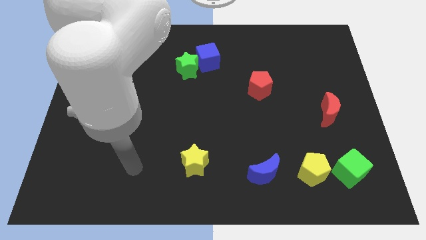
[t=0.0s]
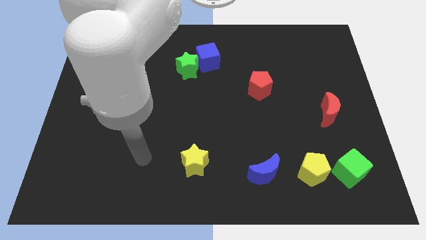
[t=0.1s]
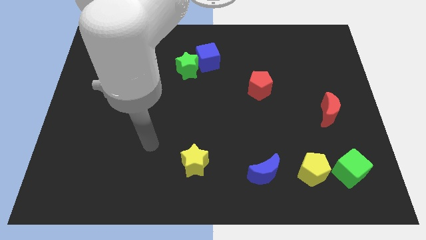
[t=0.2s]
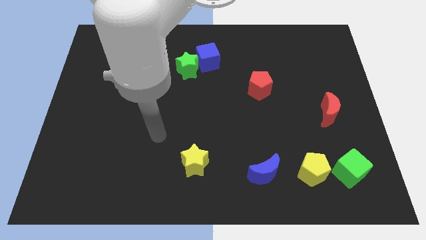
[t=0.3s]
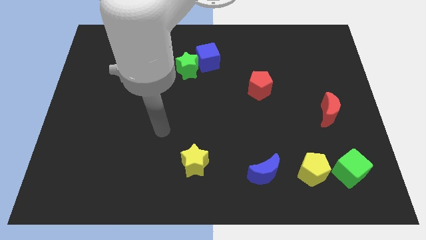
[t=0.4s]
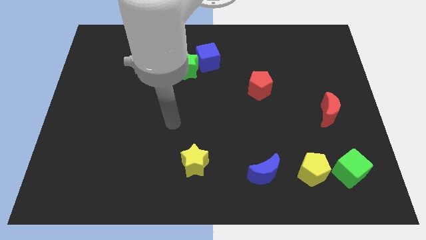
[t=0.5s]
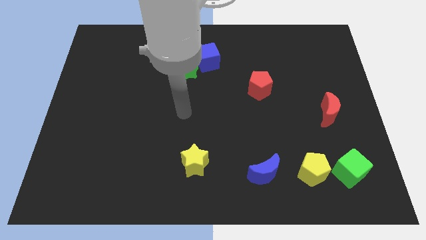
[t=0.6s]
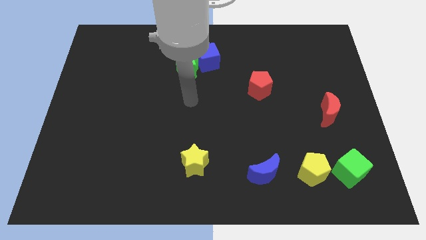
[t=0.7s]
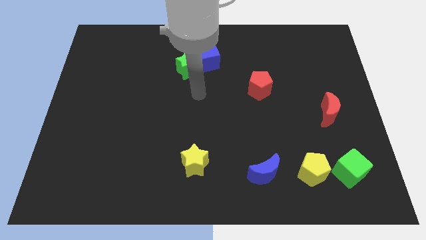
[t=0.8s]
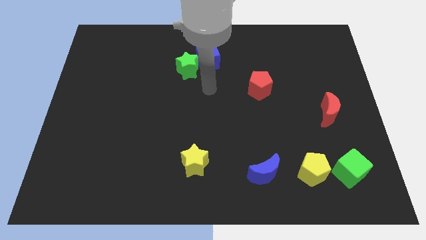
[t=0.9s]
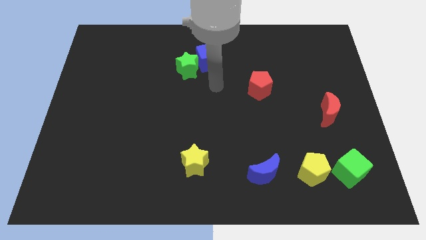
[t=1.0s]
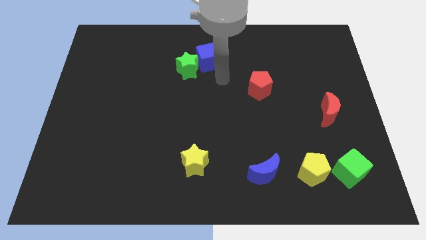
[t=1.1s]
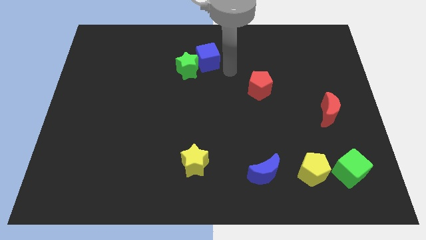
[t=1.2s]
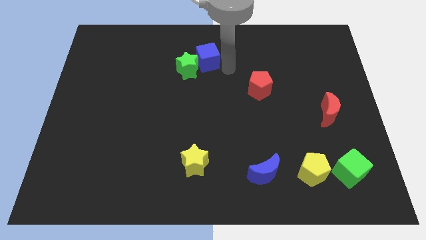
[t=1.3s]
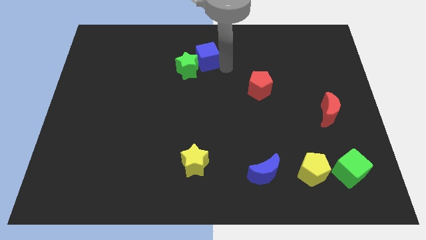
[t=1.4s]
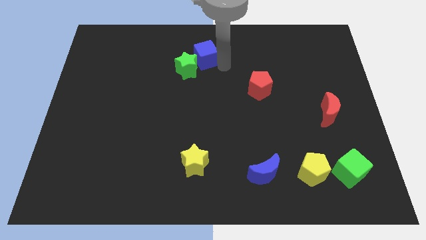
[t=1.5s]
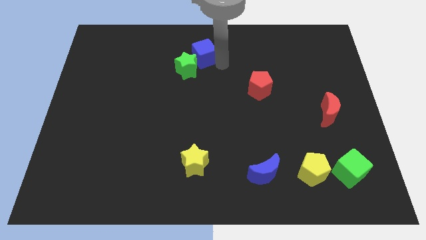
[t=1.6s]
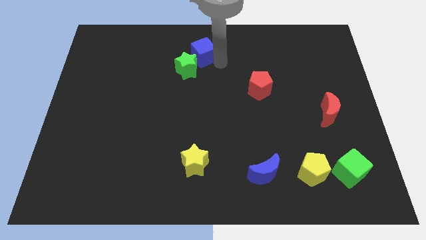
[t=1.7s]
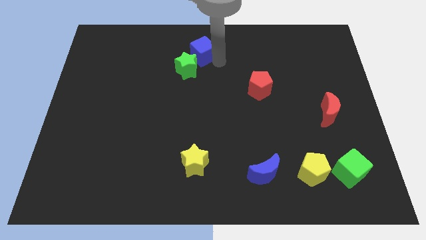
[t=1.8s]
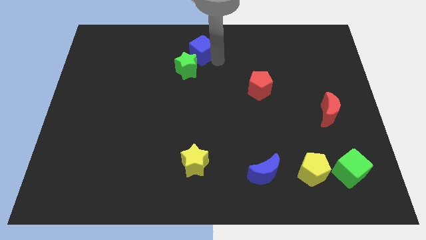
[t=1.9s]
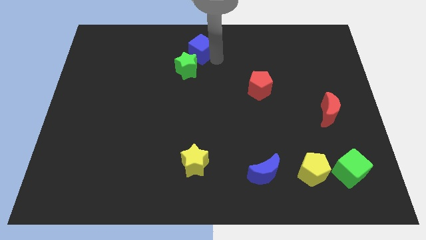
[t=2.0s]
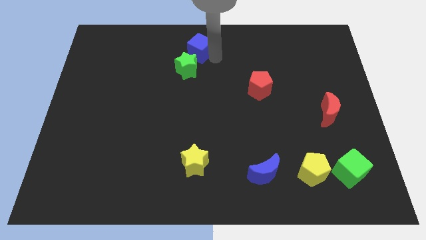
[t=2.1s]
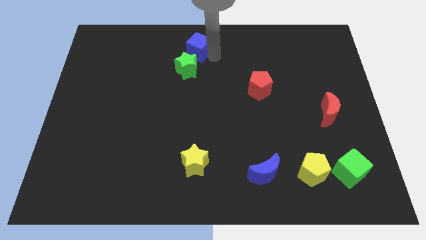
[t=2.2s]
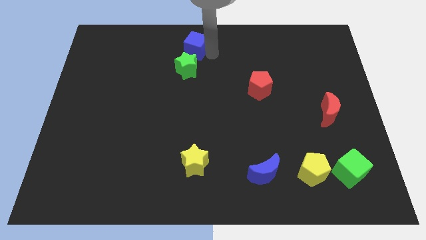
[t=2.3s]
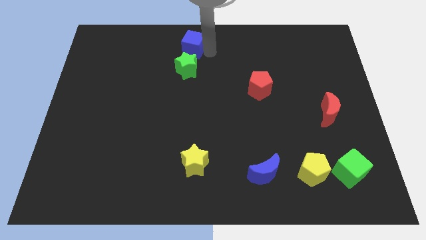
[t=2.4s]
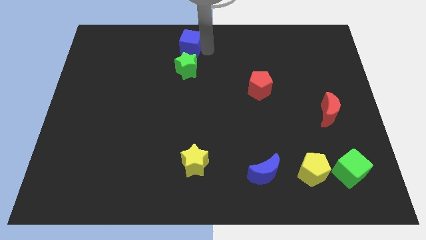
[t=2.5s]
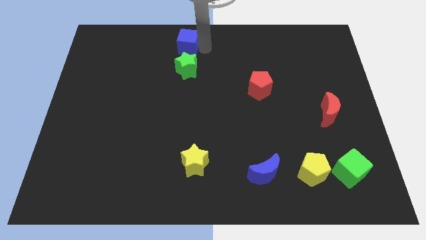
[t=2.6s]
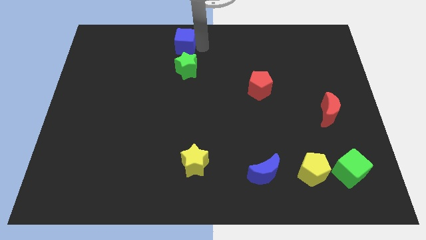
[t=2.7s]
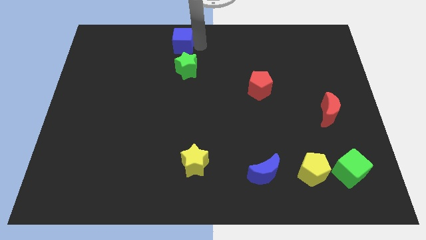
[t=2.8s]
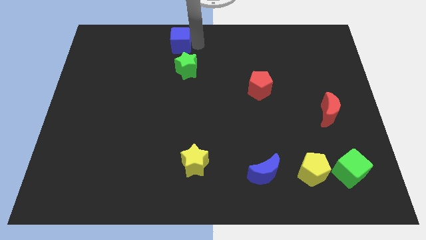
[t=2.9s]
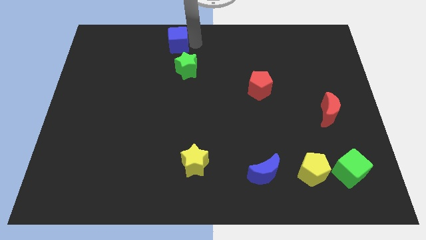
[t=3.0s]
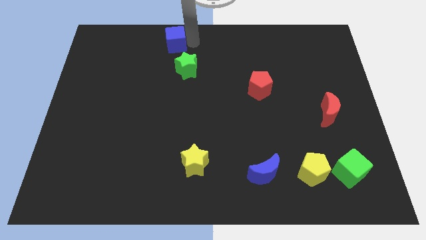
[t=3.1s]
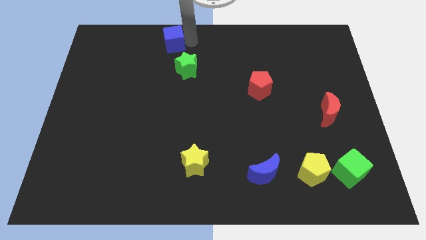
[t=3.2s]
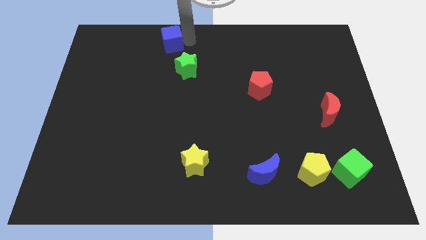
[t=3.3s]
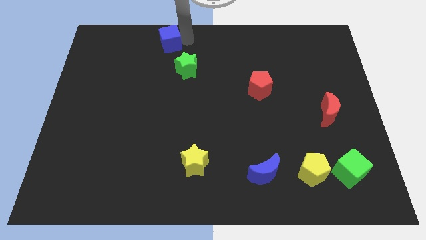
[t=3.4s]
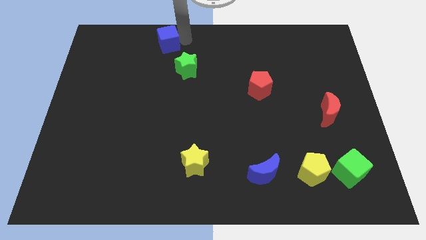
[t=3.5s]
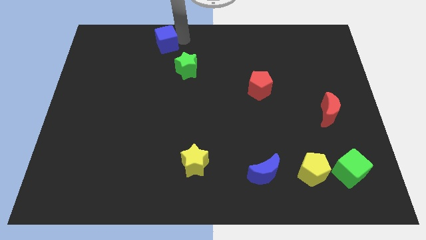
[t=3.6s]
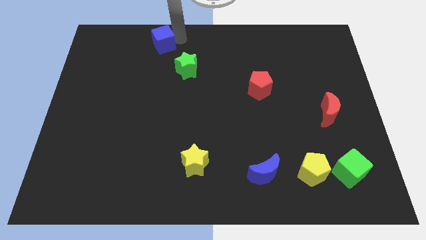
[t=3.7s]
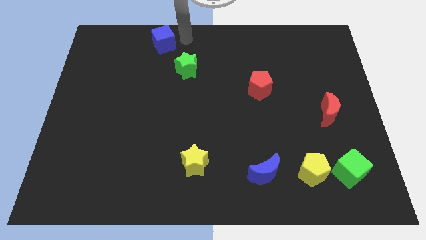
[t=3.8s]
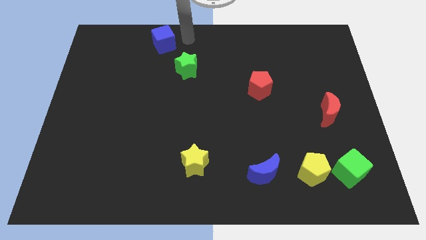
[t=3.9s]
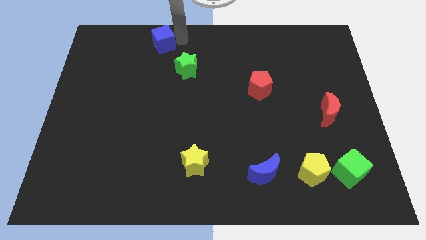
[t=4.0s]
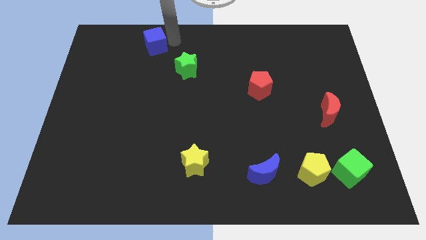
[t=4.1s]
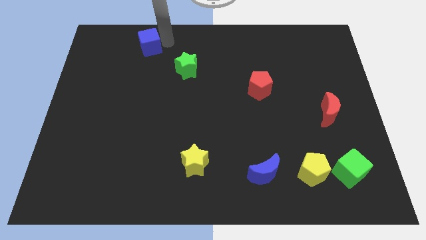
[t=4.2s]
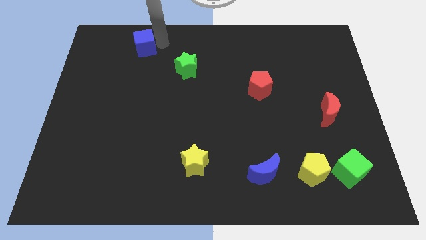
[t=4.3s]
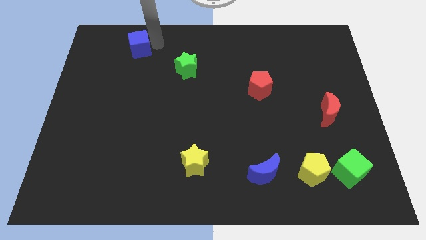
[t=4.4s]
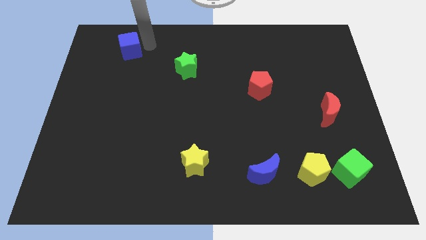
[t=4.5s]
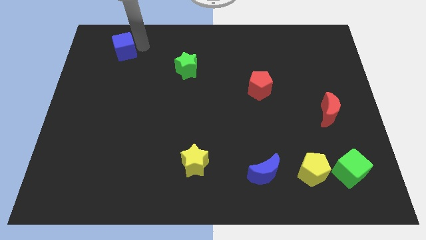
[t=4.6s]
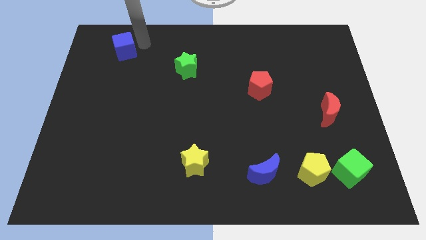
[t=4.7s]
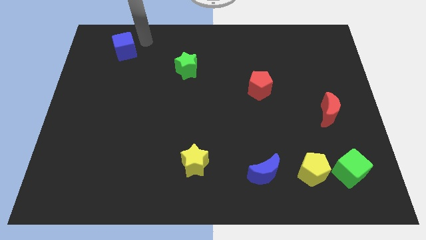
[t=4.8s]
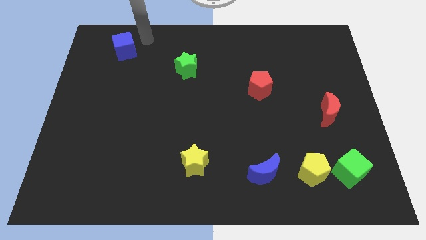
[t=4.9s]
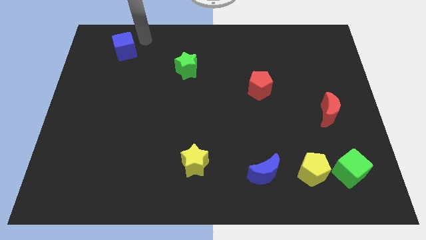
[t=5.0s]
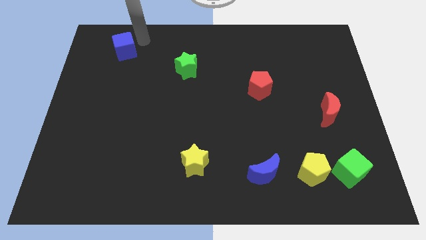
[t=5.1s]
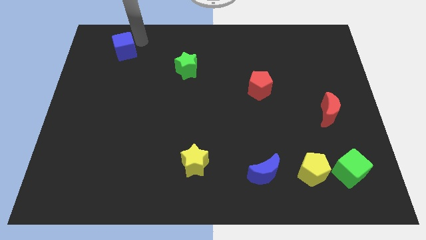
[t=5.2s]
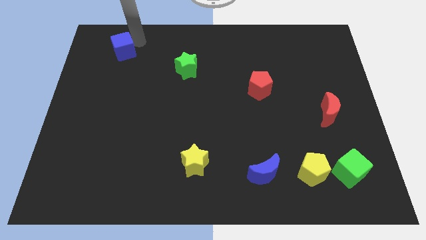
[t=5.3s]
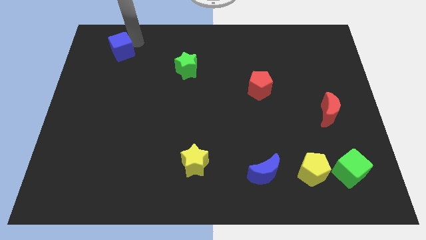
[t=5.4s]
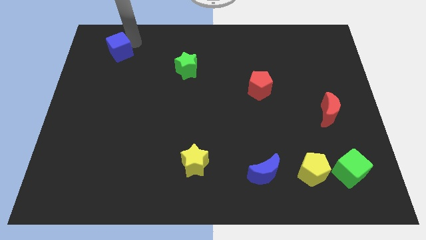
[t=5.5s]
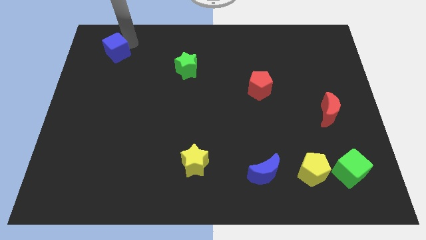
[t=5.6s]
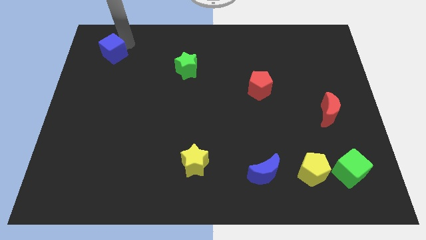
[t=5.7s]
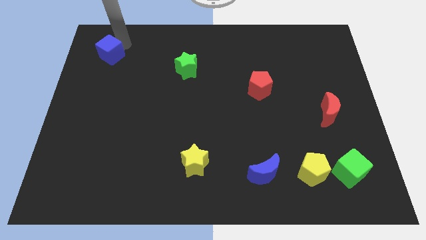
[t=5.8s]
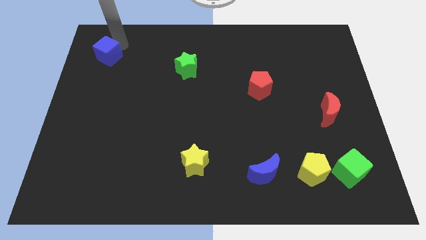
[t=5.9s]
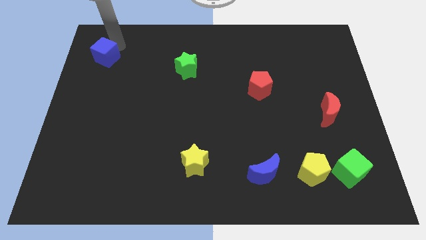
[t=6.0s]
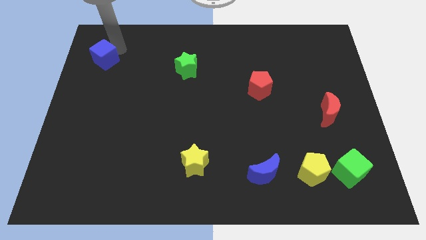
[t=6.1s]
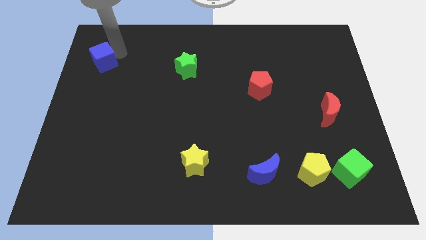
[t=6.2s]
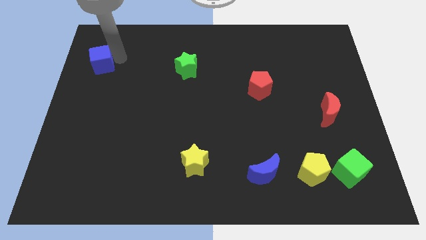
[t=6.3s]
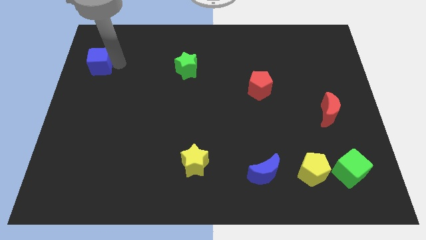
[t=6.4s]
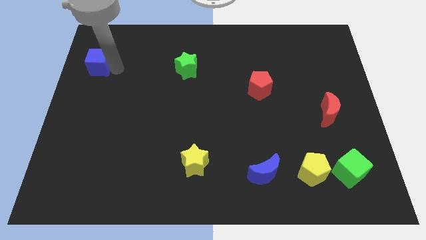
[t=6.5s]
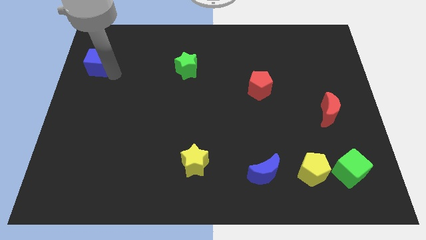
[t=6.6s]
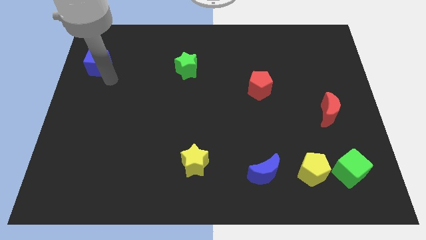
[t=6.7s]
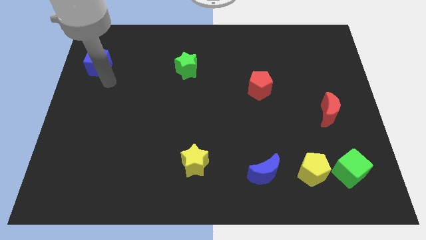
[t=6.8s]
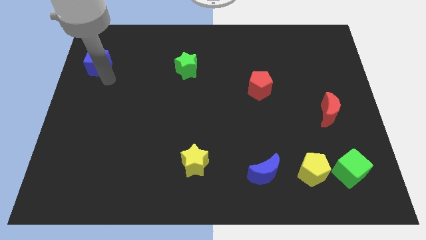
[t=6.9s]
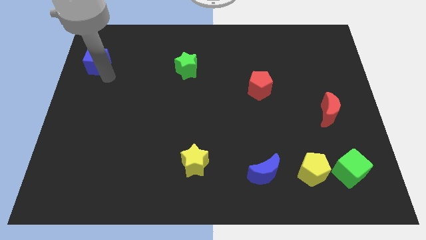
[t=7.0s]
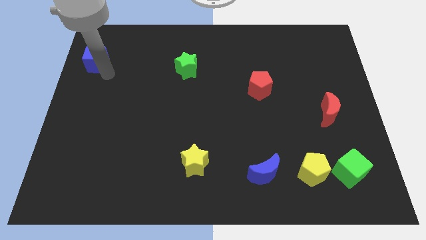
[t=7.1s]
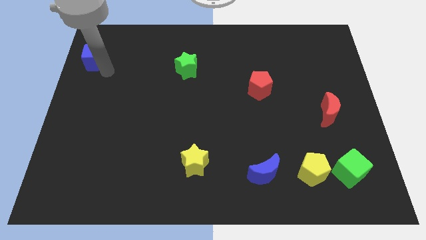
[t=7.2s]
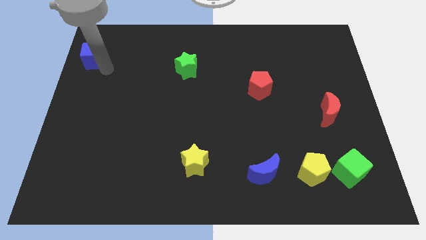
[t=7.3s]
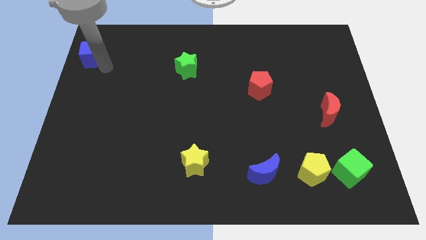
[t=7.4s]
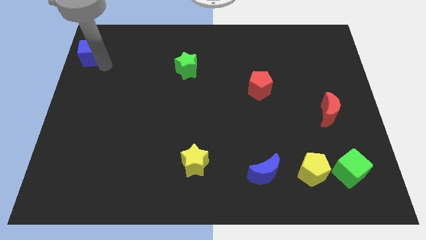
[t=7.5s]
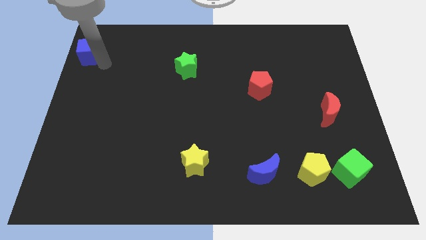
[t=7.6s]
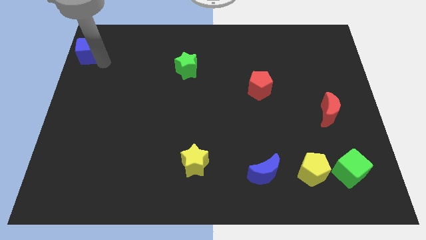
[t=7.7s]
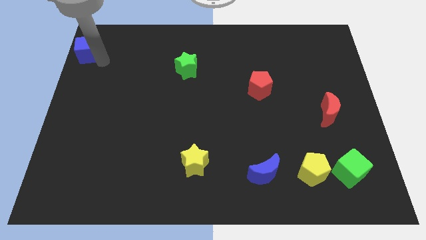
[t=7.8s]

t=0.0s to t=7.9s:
push the blue cube to the top left of the board
